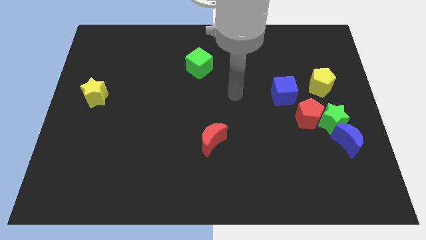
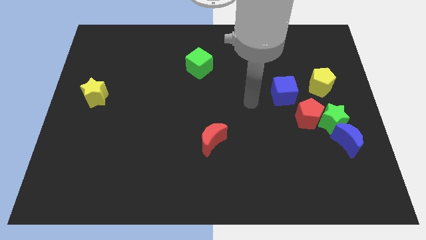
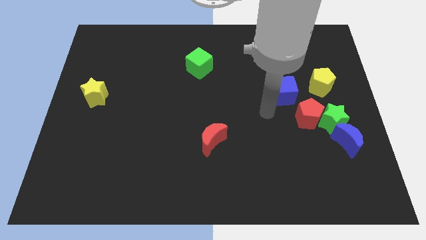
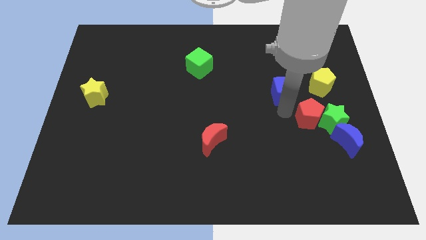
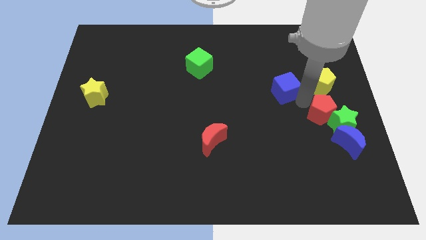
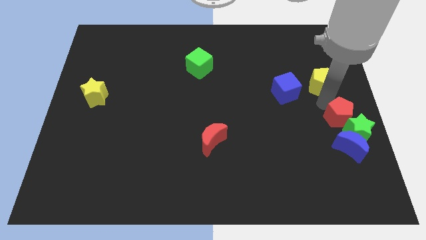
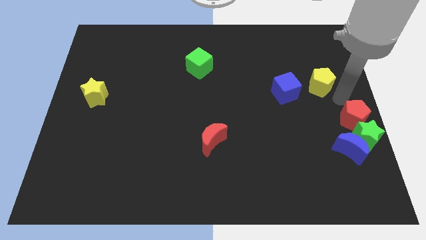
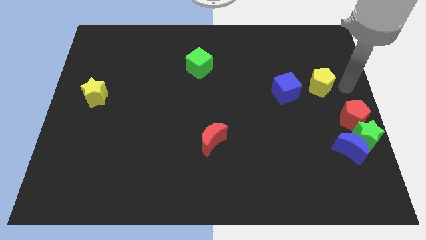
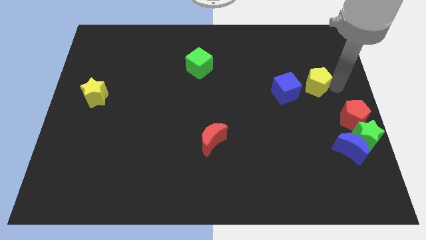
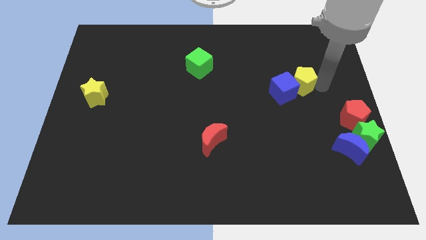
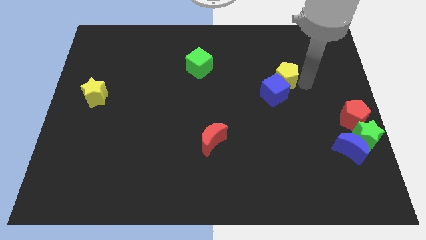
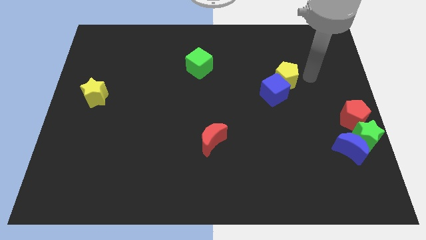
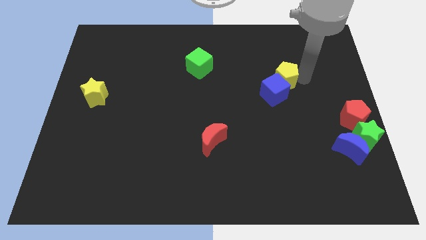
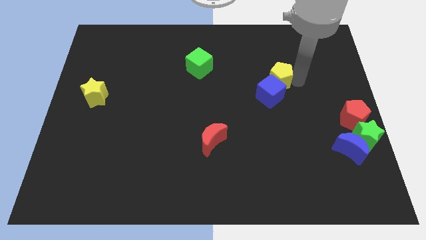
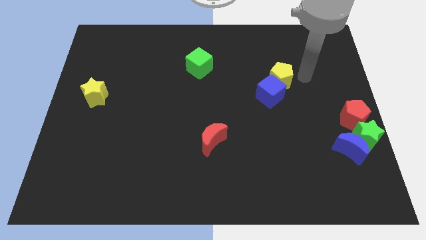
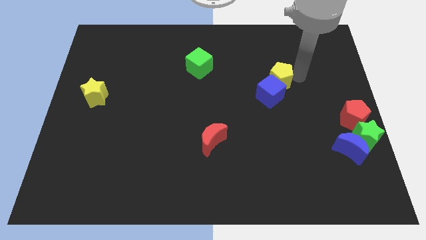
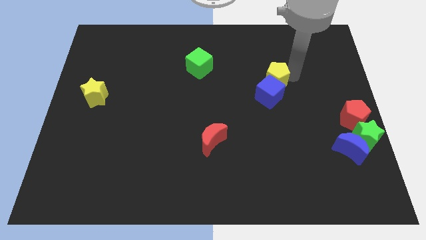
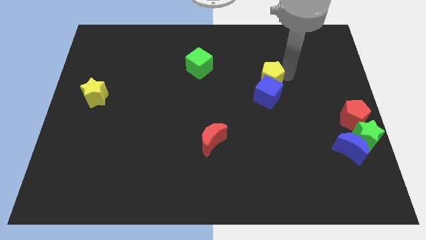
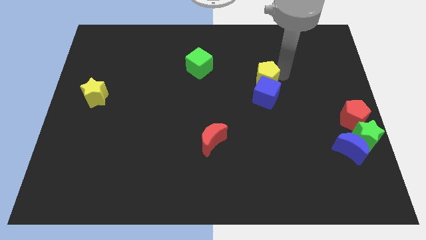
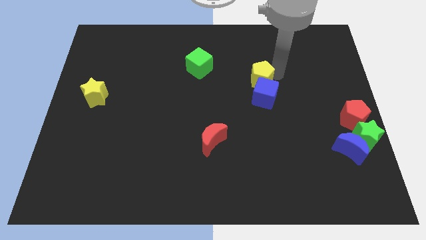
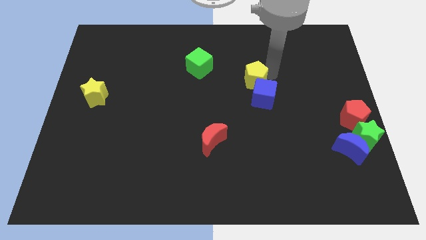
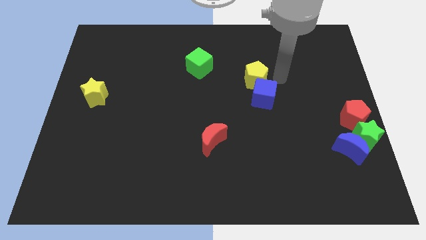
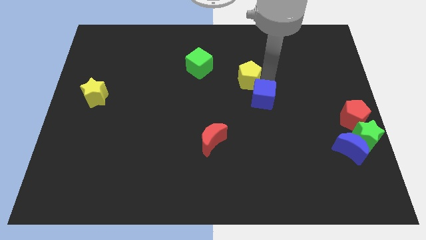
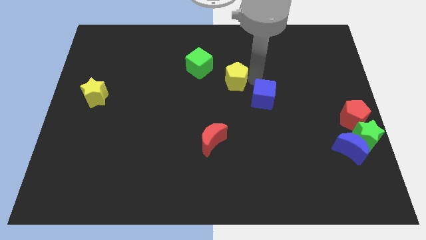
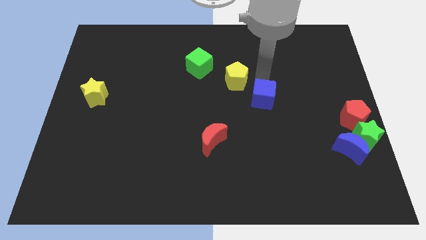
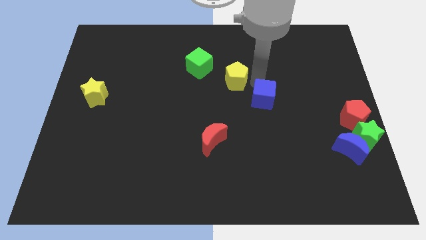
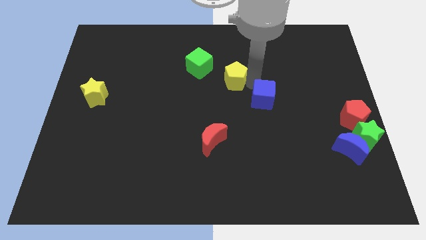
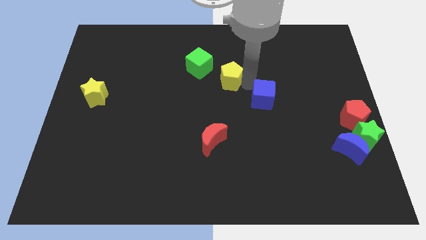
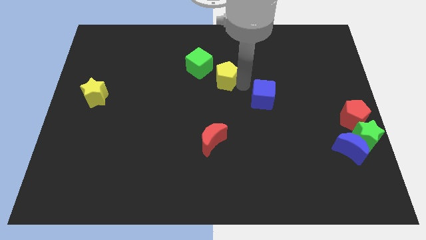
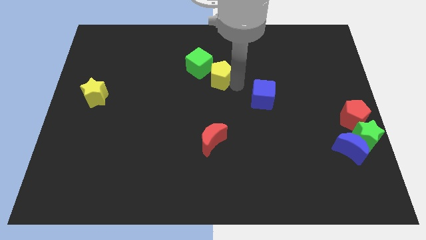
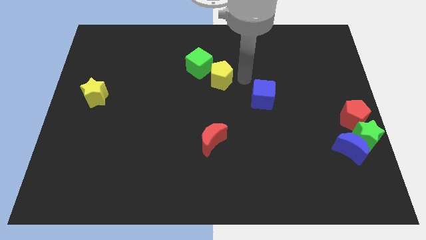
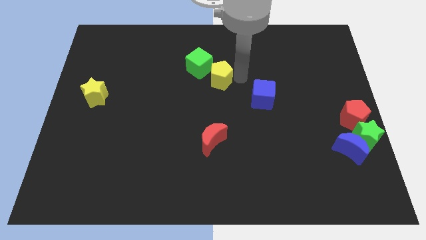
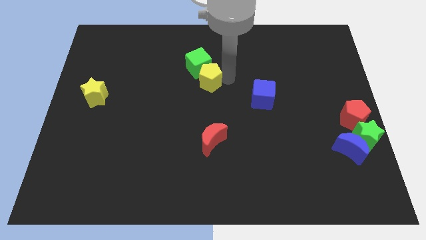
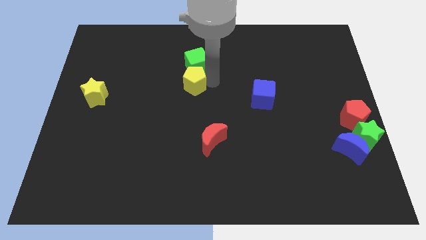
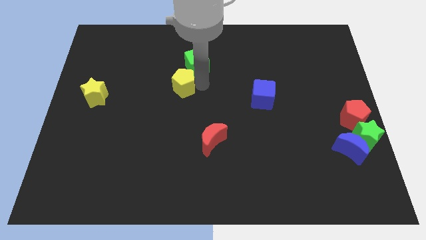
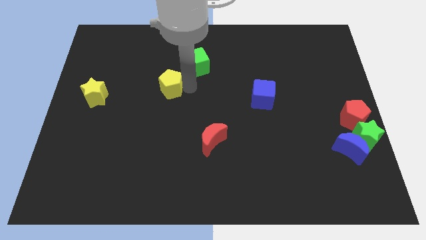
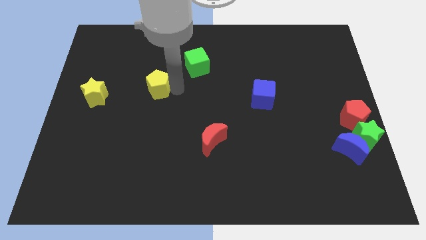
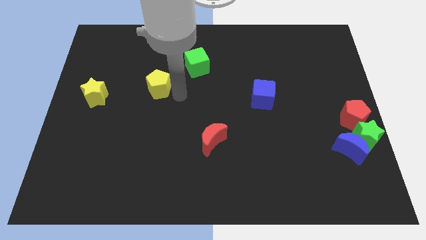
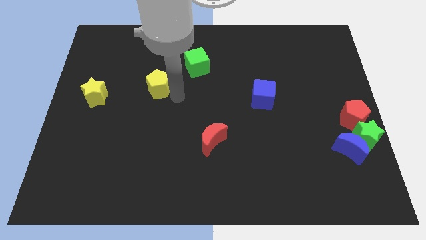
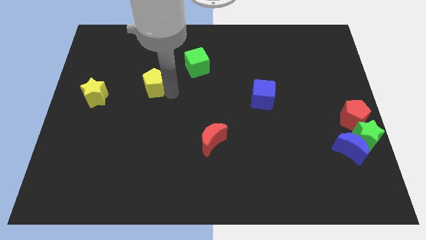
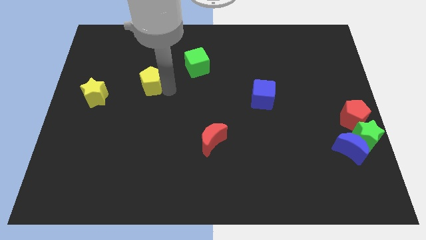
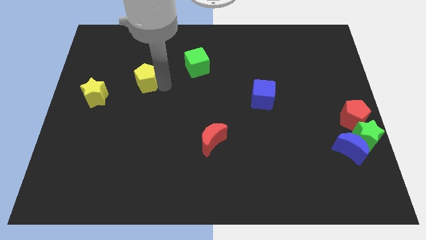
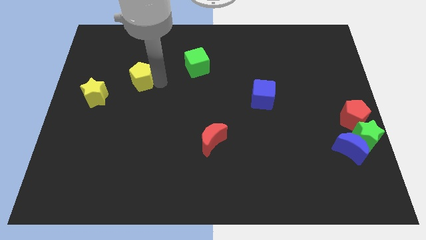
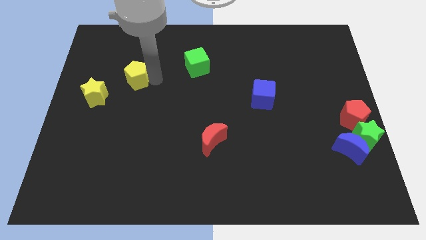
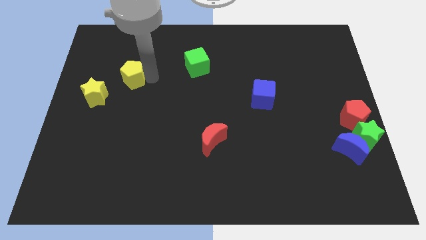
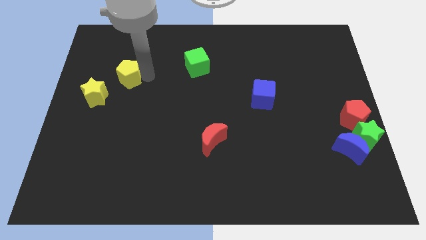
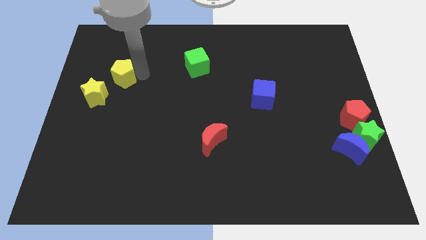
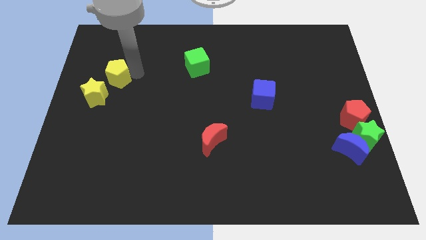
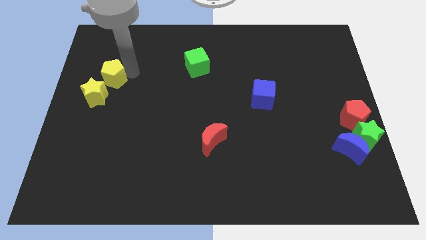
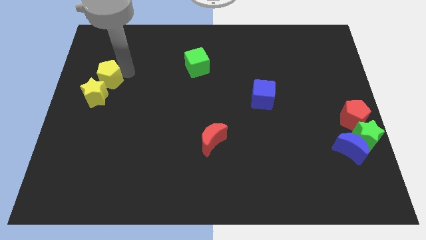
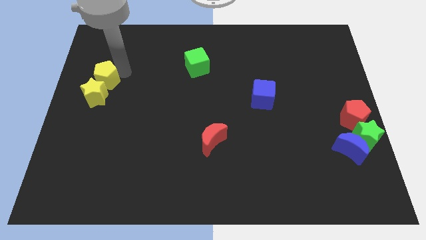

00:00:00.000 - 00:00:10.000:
slide the yellow pentagon to the left side

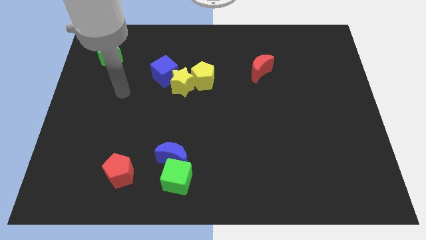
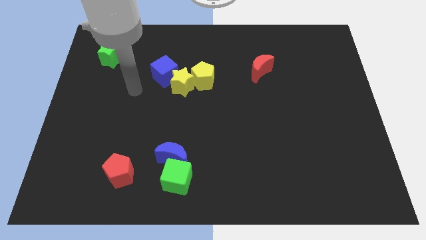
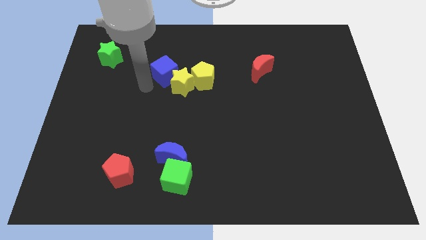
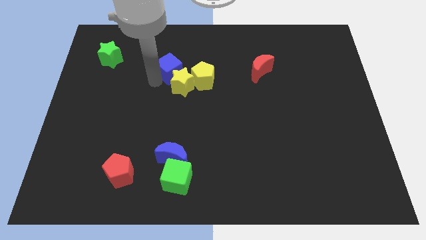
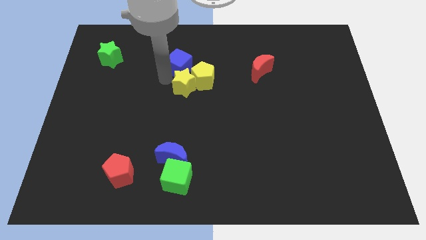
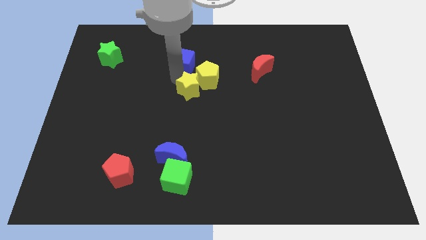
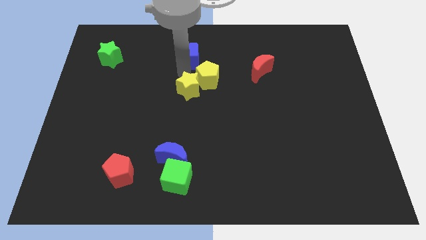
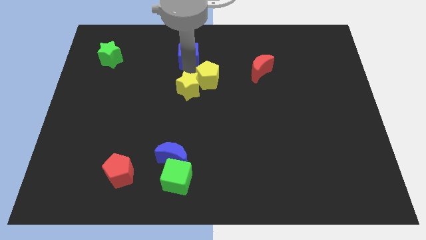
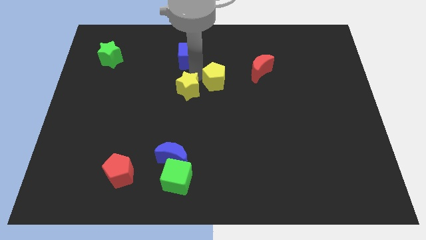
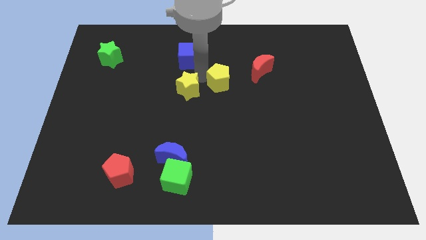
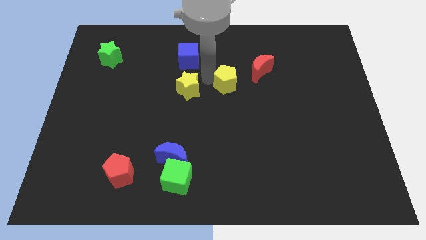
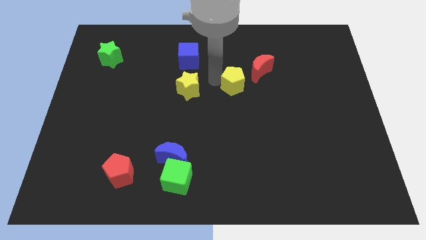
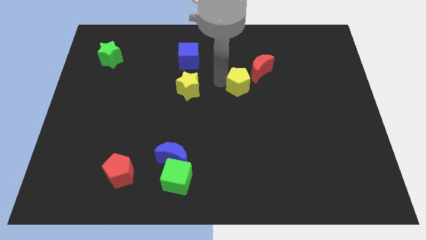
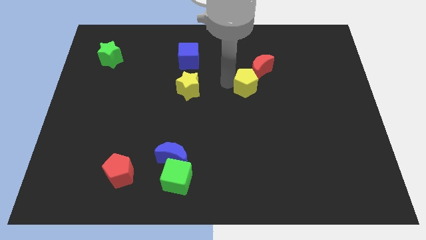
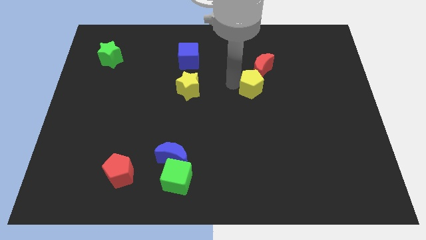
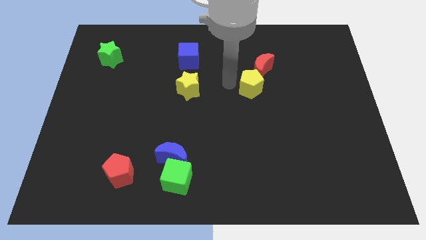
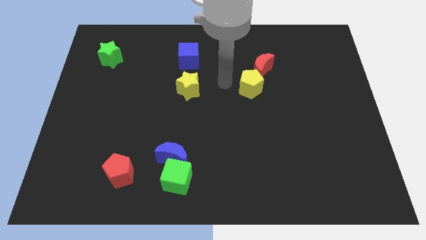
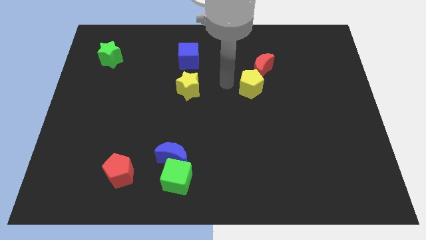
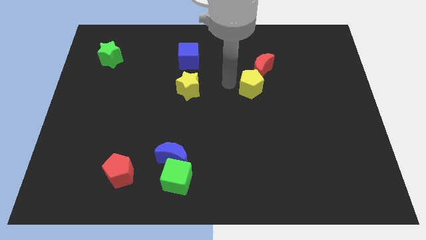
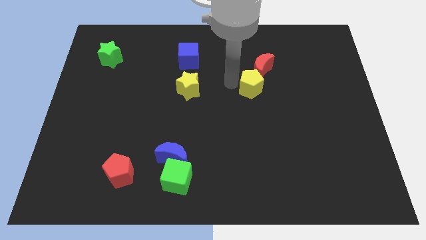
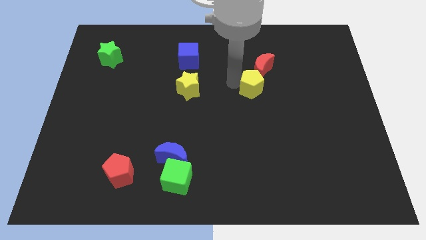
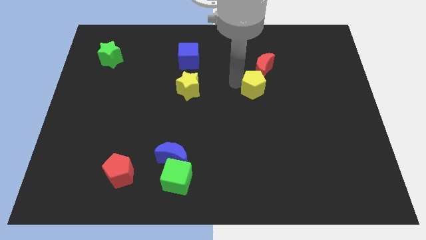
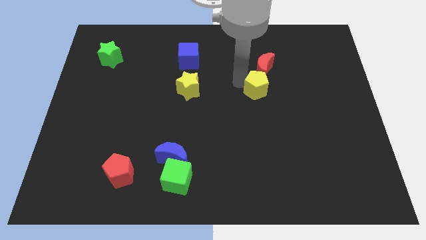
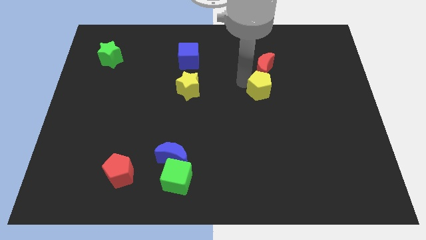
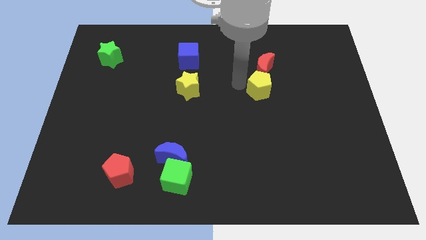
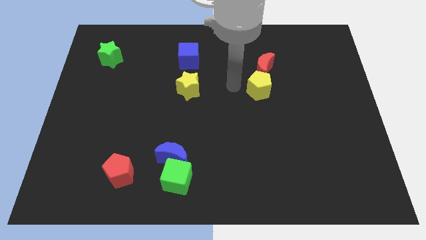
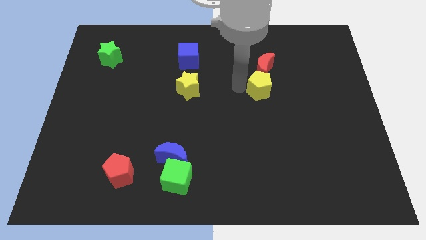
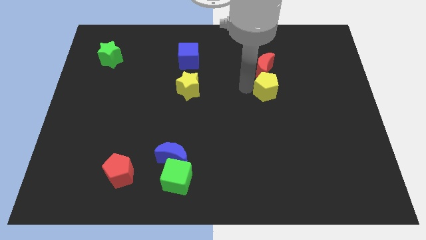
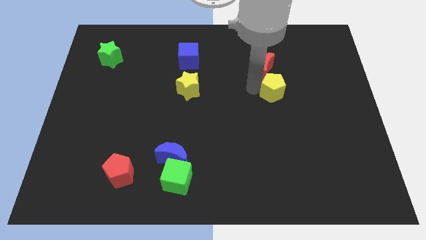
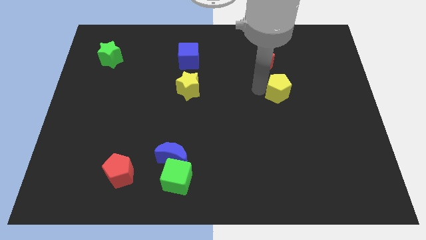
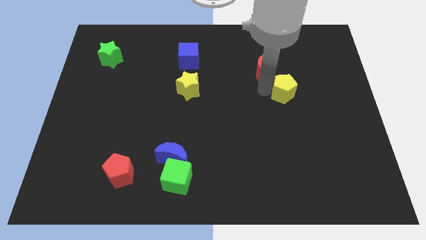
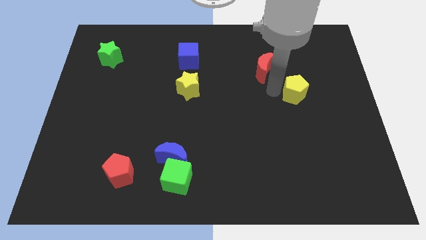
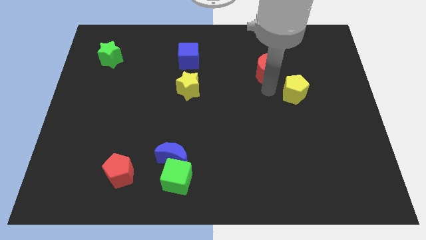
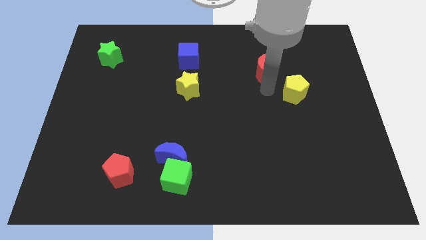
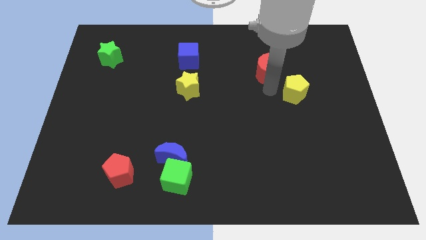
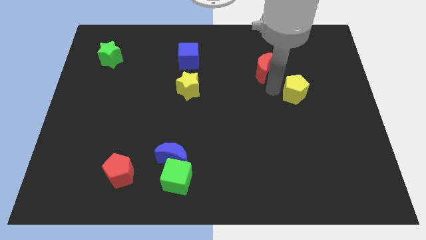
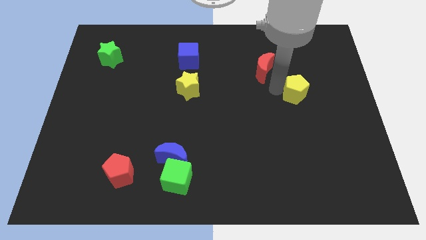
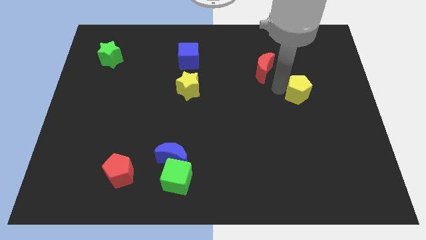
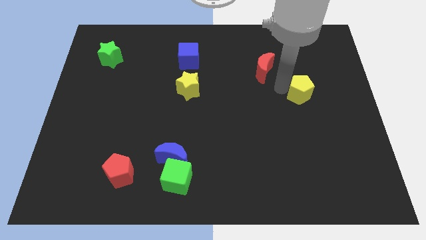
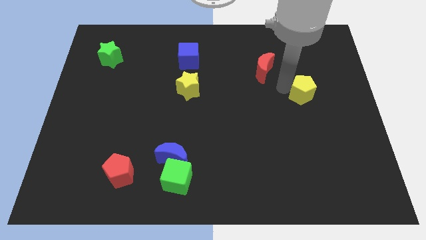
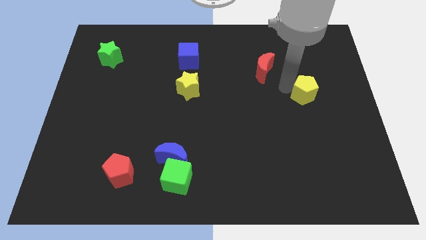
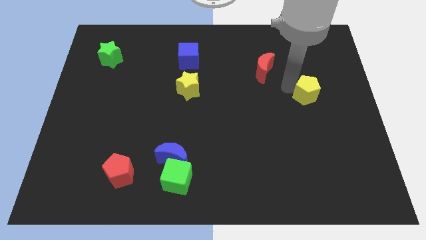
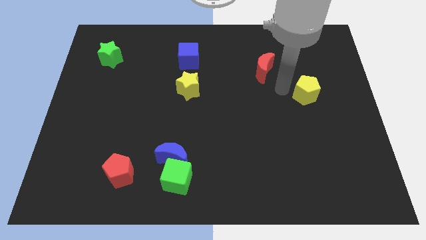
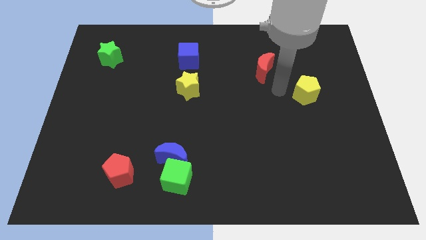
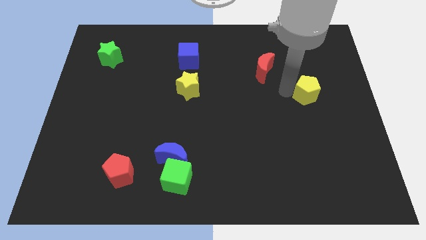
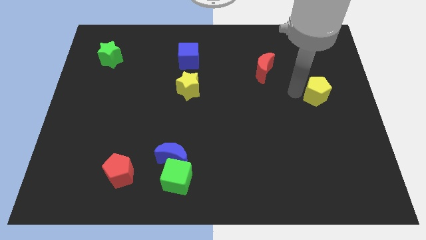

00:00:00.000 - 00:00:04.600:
slide the yellow pentagon to the right side
